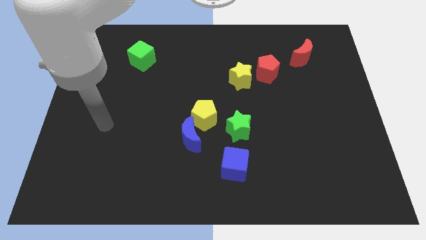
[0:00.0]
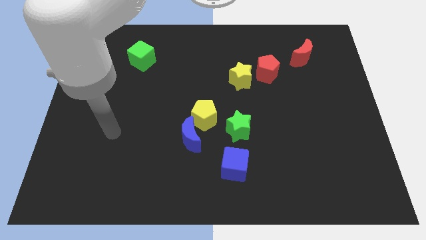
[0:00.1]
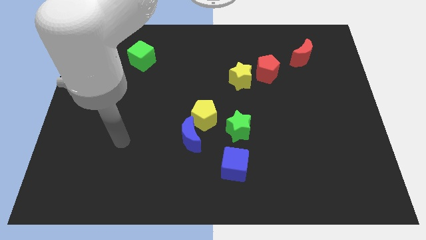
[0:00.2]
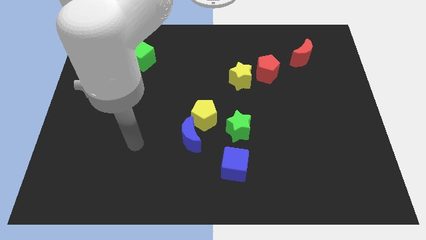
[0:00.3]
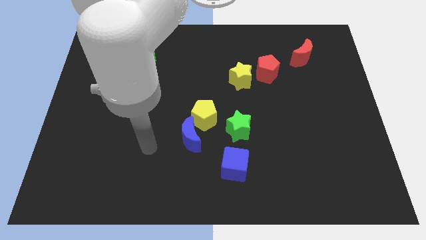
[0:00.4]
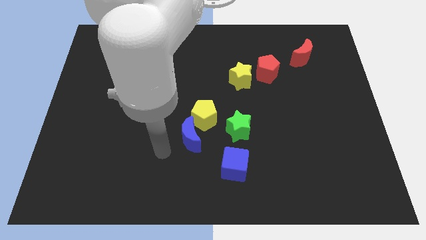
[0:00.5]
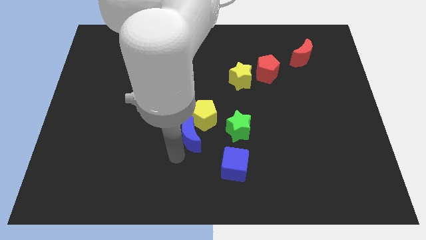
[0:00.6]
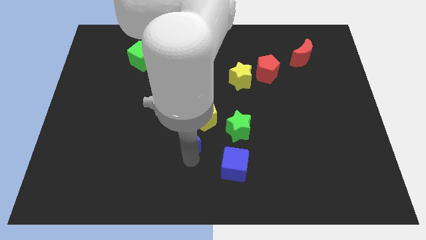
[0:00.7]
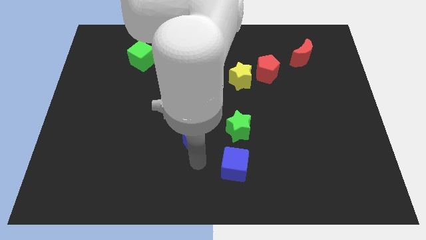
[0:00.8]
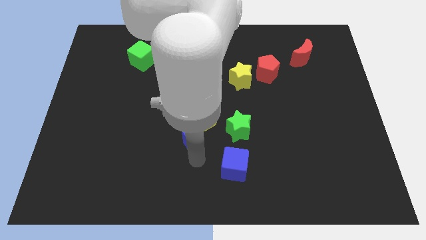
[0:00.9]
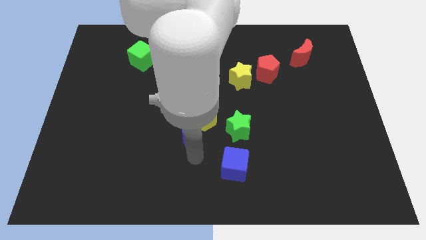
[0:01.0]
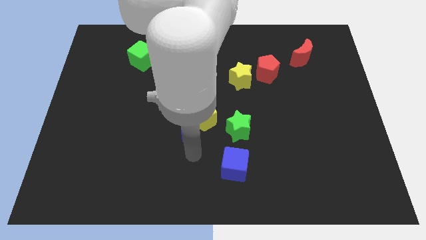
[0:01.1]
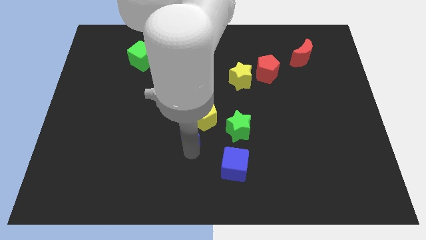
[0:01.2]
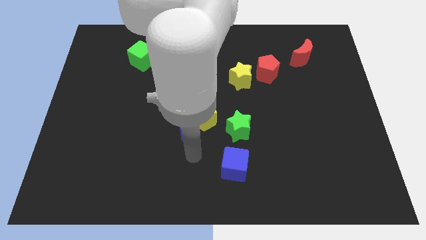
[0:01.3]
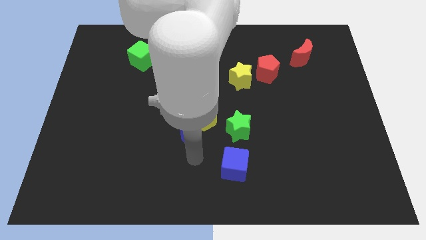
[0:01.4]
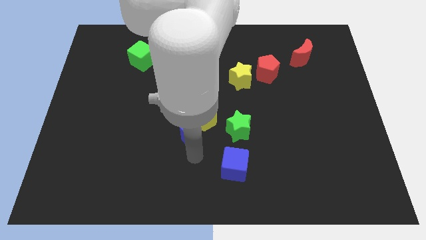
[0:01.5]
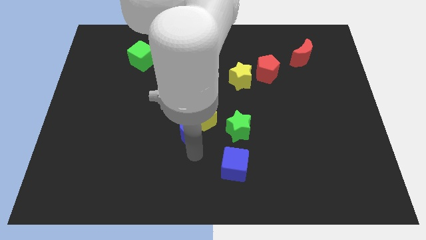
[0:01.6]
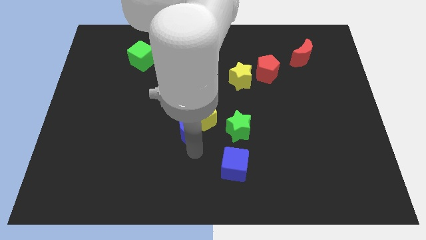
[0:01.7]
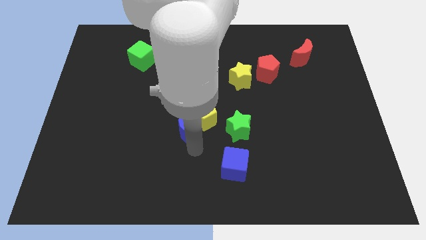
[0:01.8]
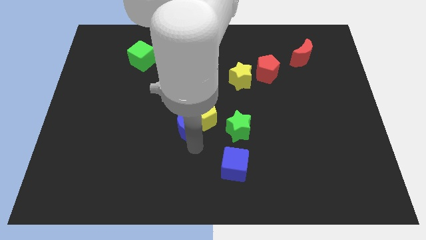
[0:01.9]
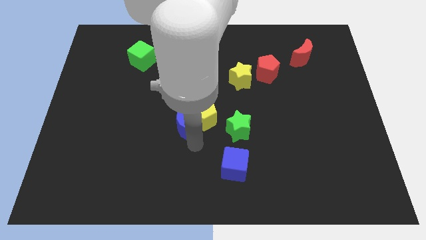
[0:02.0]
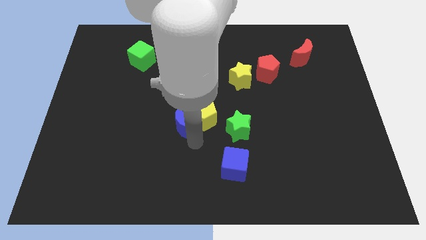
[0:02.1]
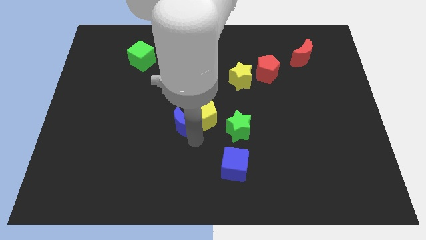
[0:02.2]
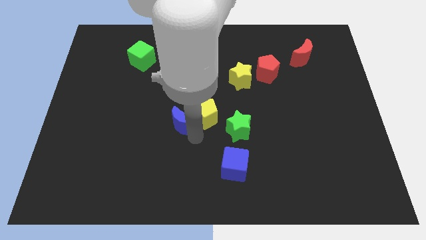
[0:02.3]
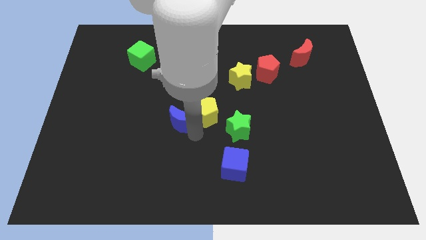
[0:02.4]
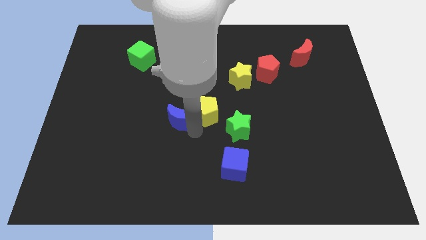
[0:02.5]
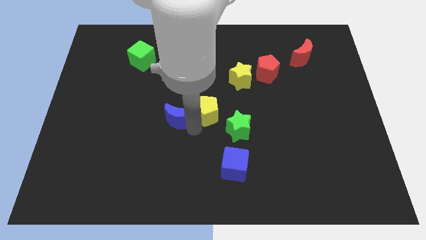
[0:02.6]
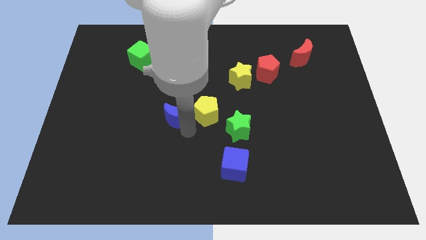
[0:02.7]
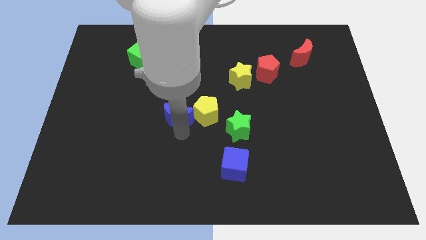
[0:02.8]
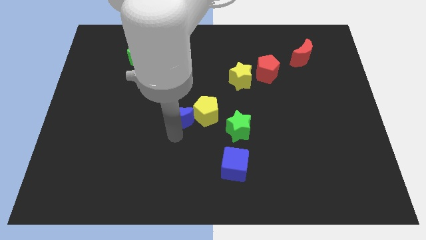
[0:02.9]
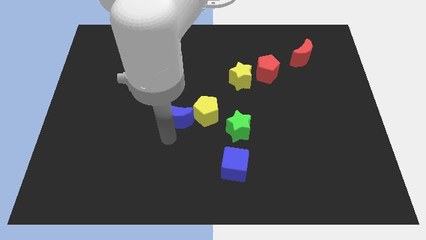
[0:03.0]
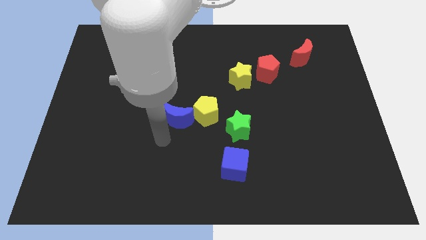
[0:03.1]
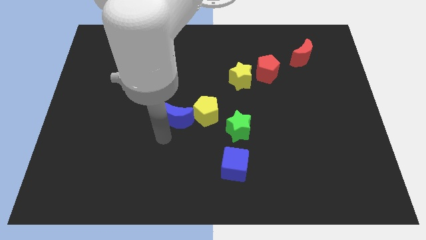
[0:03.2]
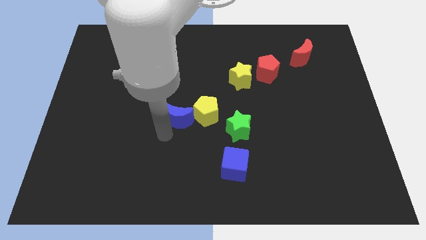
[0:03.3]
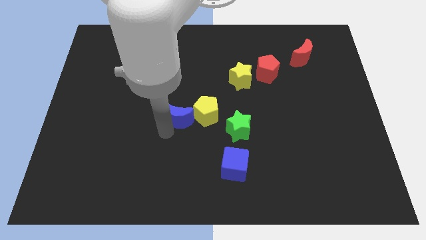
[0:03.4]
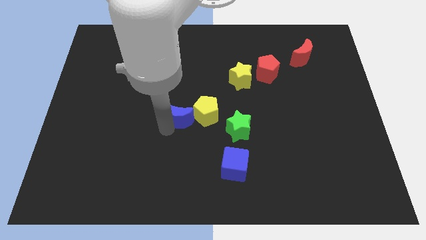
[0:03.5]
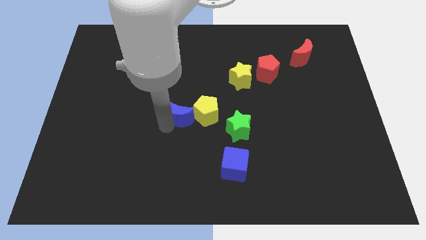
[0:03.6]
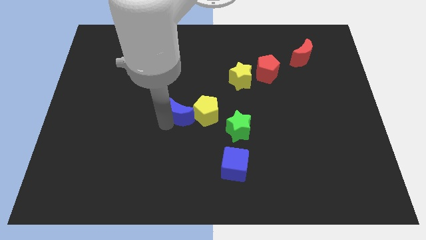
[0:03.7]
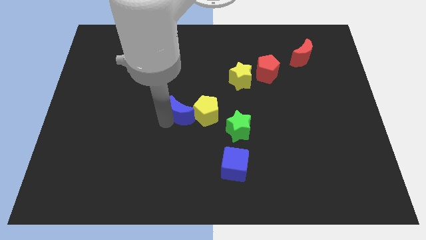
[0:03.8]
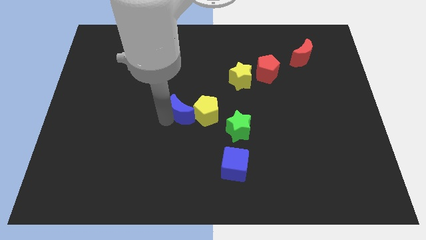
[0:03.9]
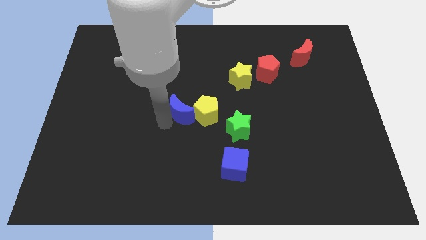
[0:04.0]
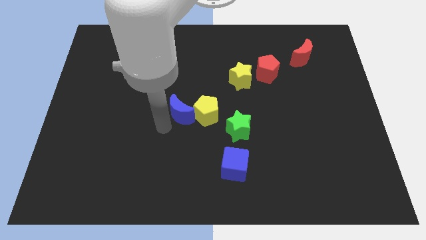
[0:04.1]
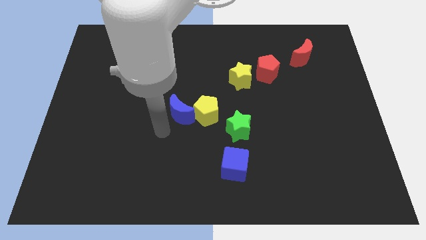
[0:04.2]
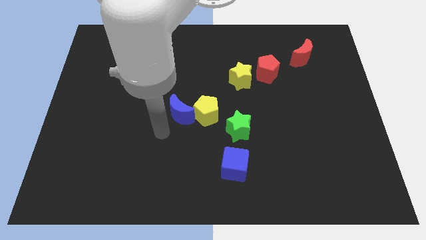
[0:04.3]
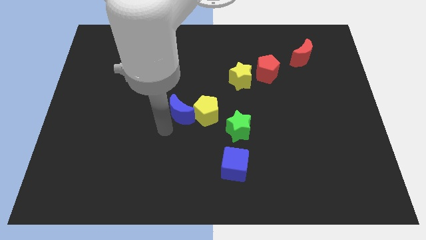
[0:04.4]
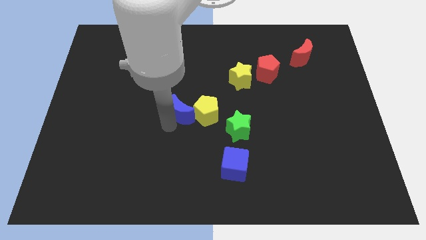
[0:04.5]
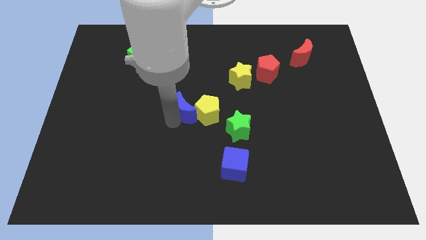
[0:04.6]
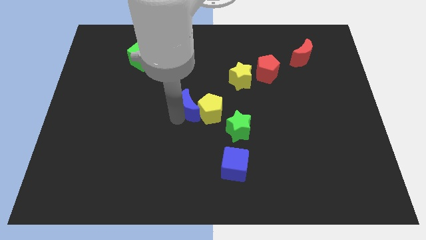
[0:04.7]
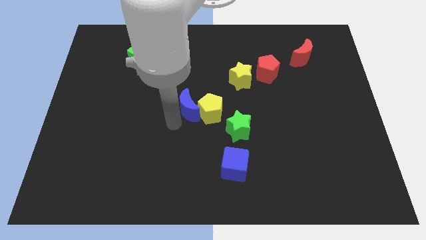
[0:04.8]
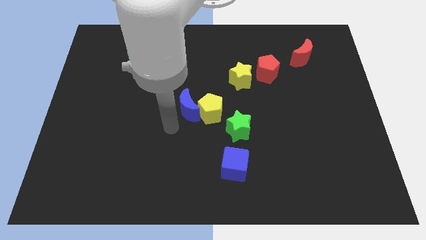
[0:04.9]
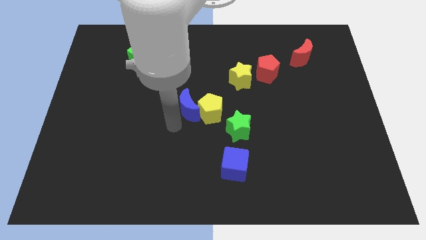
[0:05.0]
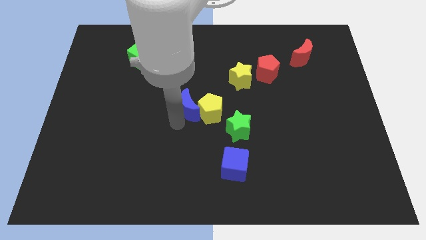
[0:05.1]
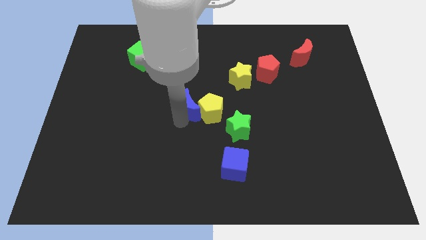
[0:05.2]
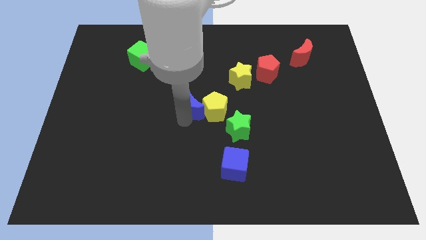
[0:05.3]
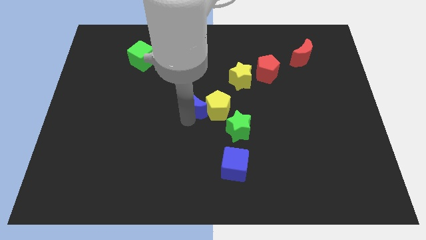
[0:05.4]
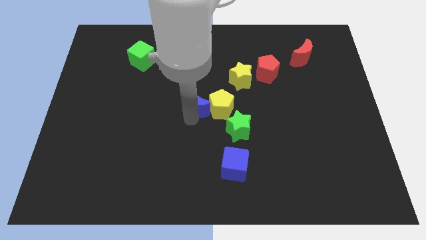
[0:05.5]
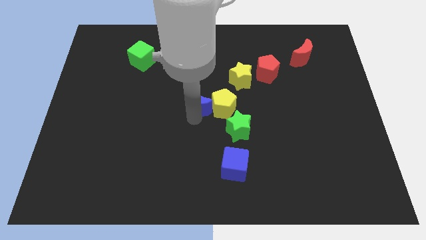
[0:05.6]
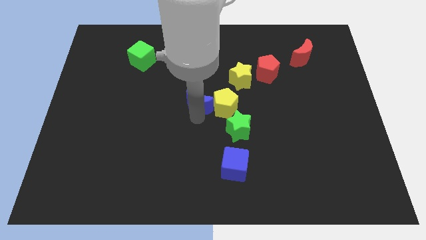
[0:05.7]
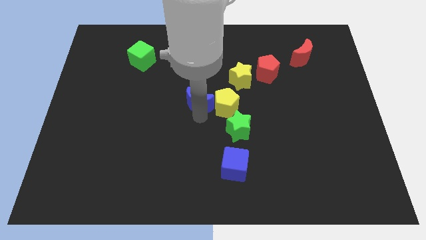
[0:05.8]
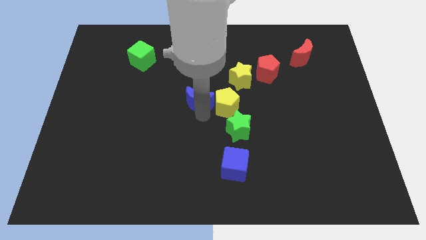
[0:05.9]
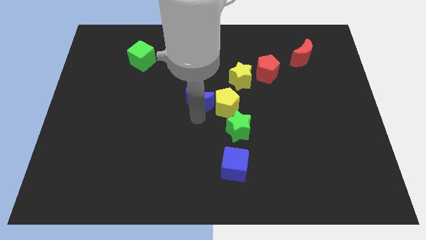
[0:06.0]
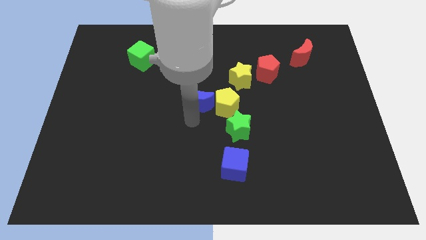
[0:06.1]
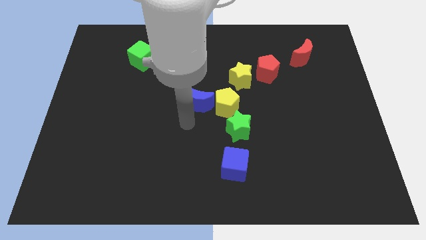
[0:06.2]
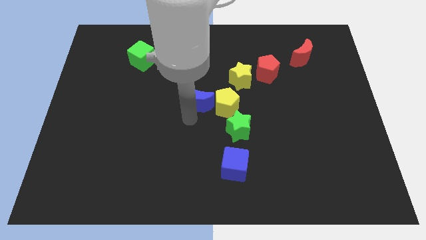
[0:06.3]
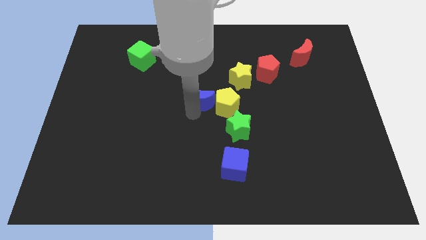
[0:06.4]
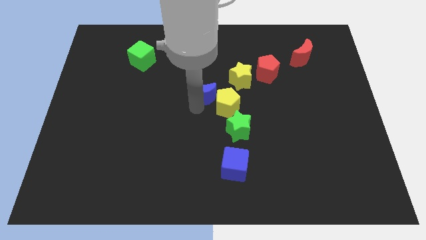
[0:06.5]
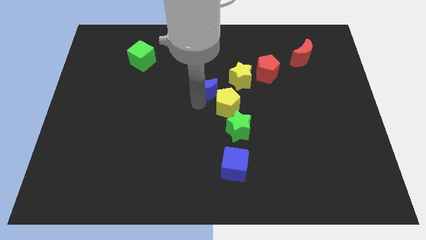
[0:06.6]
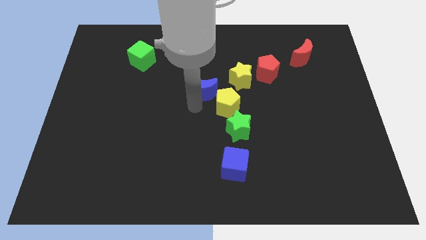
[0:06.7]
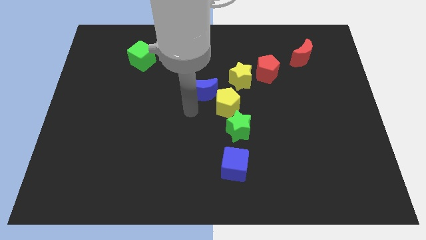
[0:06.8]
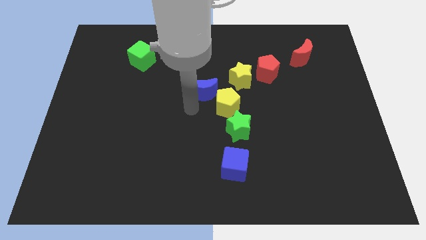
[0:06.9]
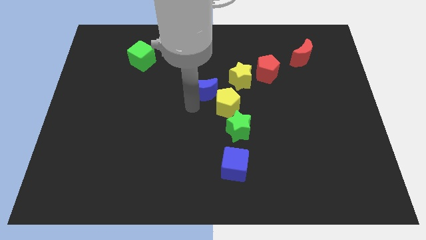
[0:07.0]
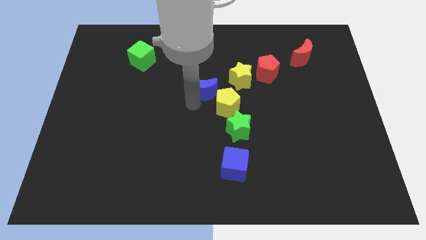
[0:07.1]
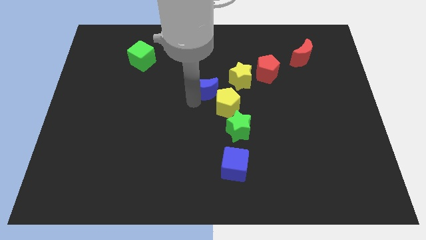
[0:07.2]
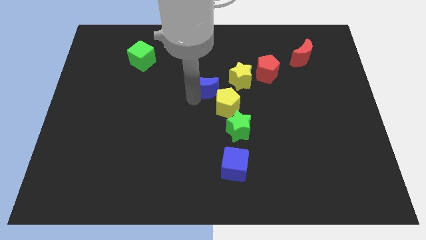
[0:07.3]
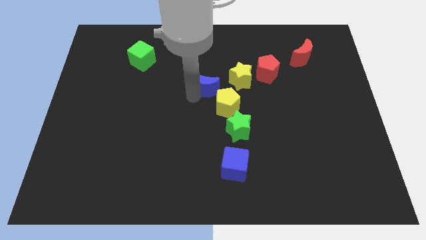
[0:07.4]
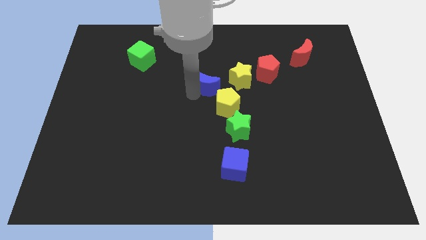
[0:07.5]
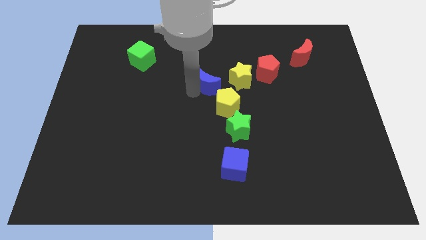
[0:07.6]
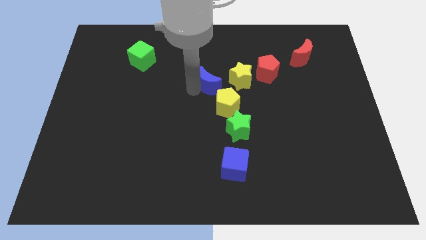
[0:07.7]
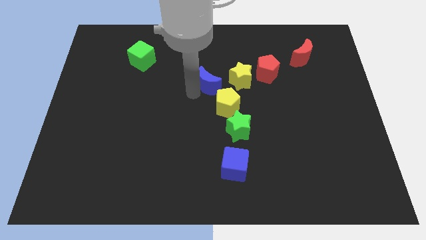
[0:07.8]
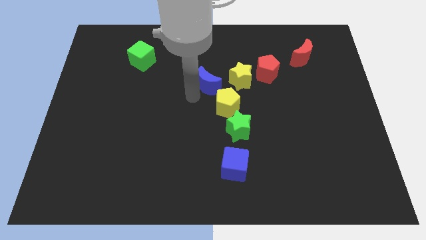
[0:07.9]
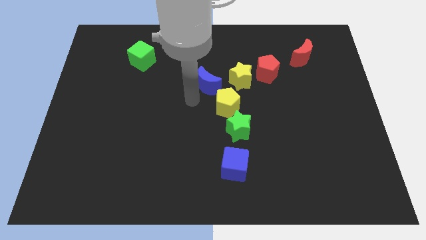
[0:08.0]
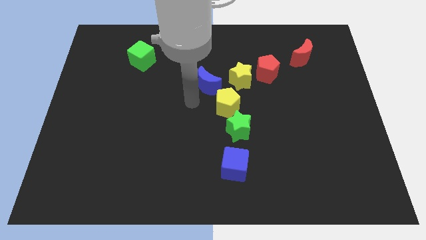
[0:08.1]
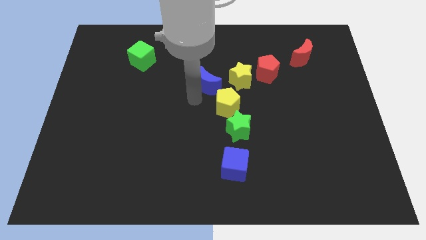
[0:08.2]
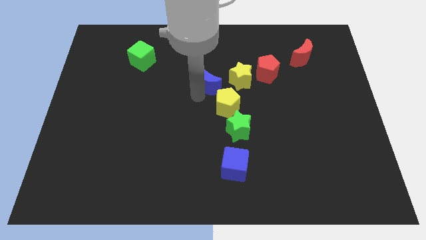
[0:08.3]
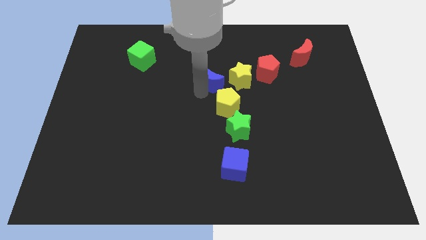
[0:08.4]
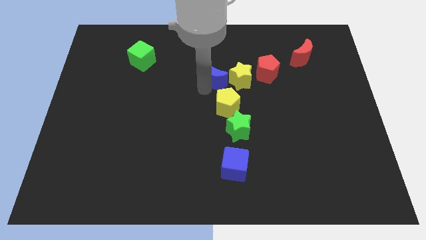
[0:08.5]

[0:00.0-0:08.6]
slide the blue moon to the top left side of the yellow star
